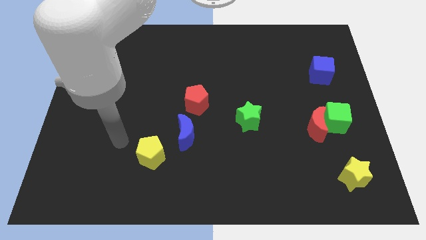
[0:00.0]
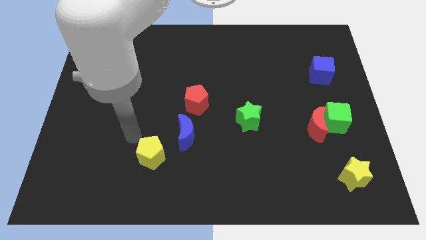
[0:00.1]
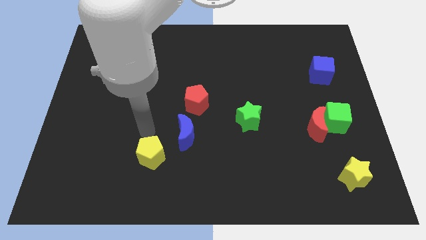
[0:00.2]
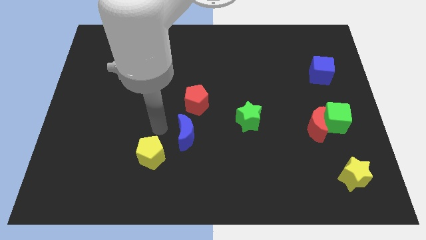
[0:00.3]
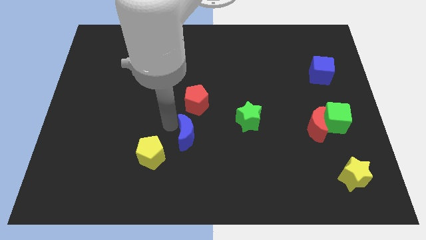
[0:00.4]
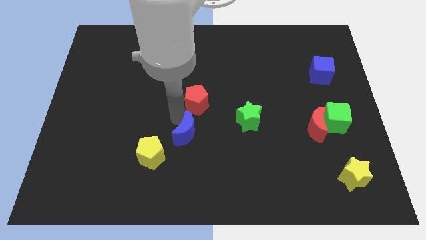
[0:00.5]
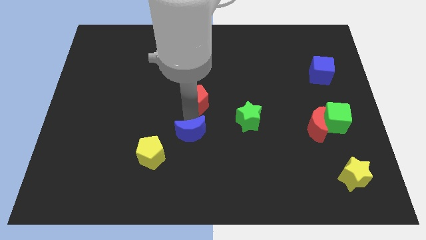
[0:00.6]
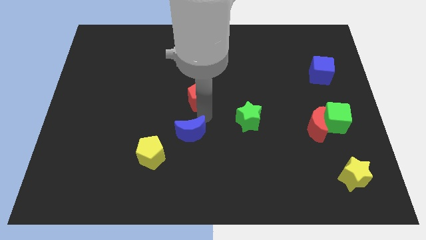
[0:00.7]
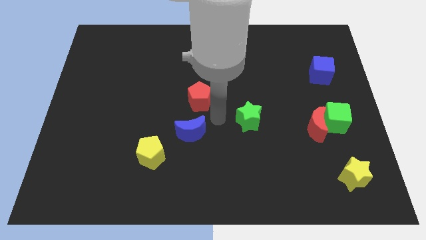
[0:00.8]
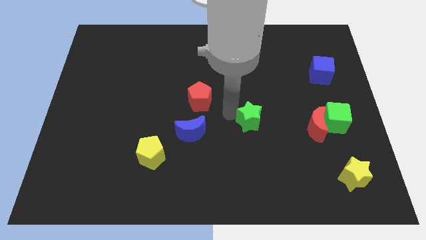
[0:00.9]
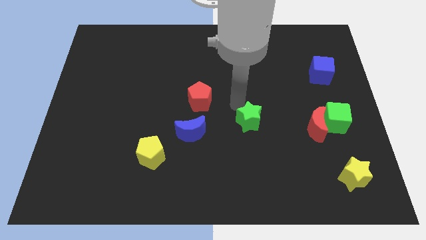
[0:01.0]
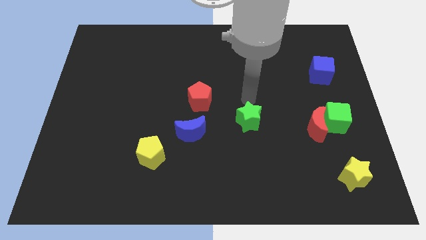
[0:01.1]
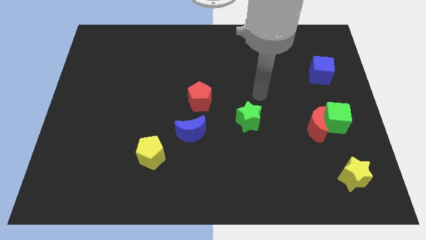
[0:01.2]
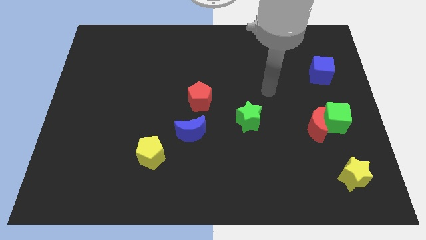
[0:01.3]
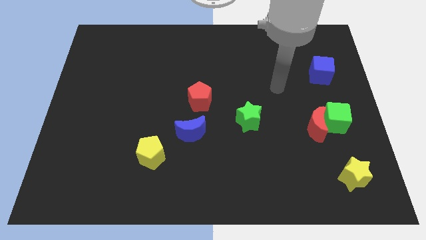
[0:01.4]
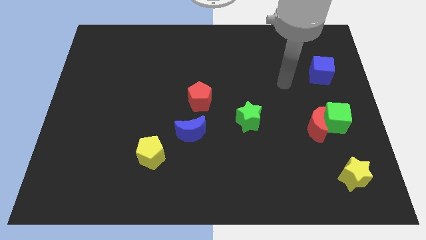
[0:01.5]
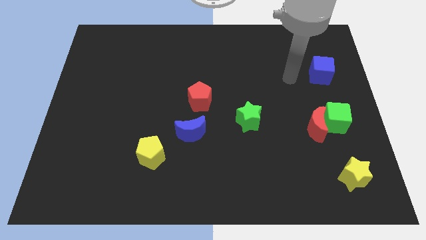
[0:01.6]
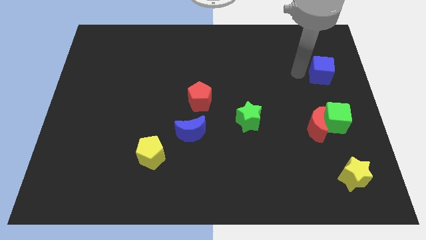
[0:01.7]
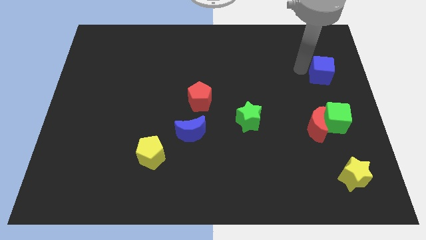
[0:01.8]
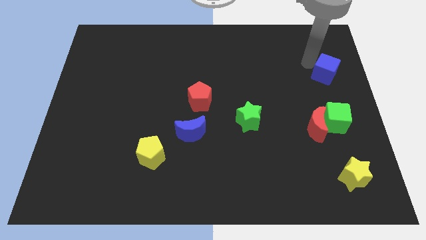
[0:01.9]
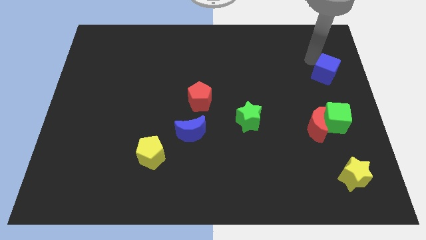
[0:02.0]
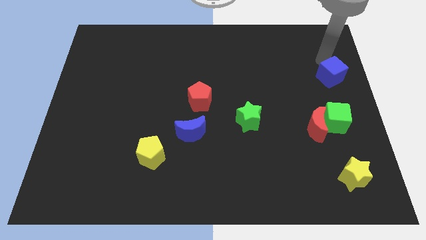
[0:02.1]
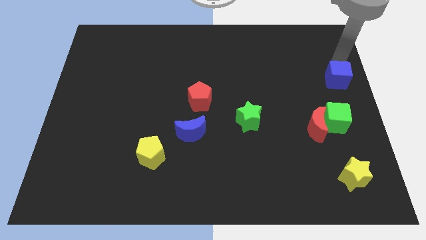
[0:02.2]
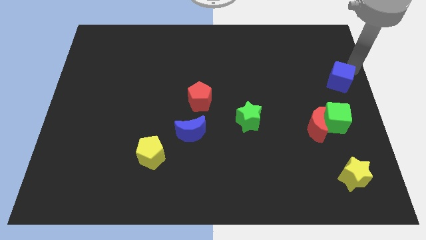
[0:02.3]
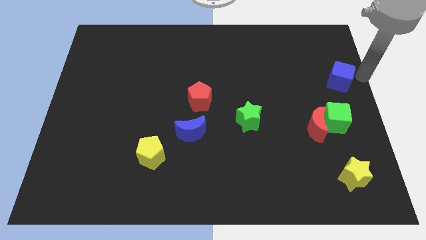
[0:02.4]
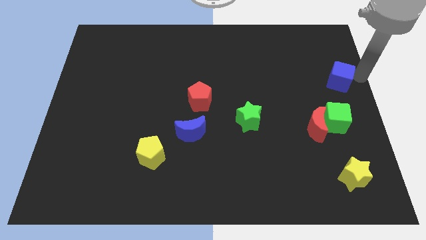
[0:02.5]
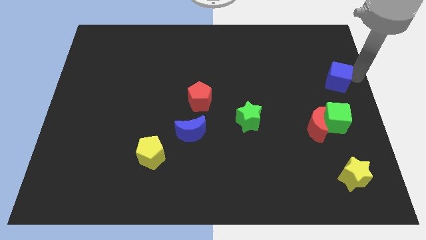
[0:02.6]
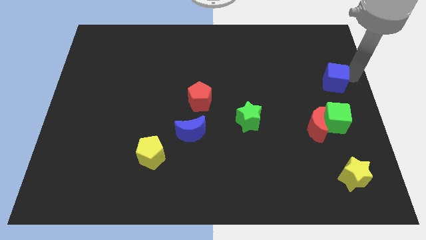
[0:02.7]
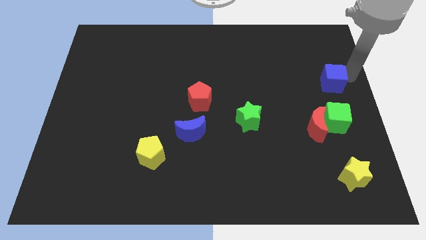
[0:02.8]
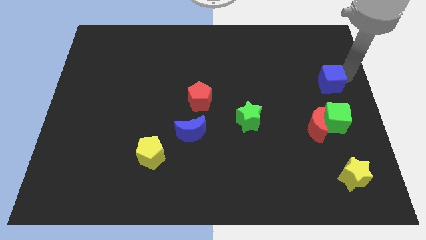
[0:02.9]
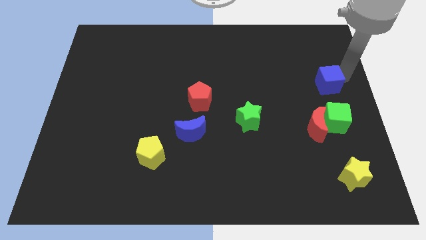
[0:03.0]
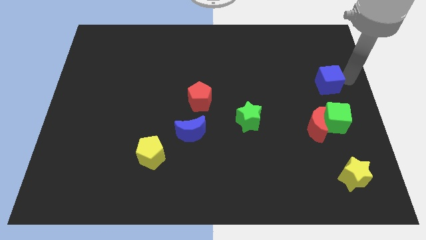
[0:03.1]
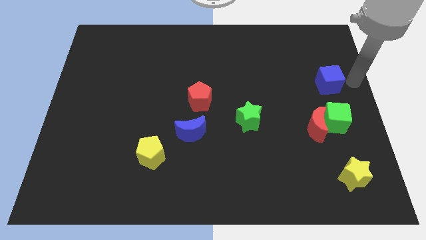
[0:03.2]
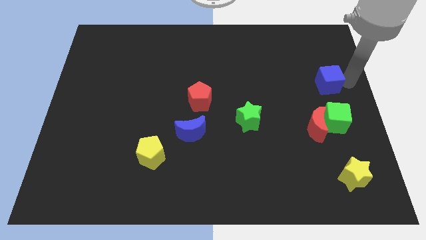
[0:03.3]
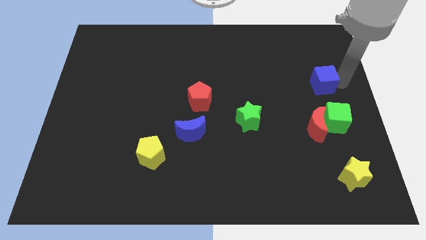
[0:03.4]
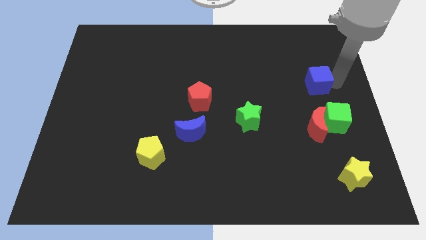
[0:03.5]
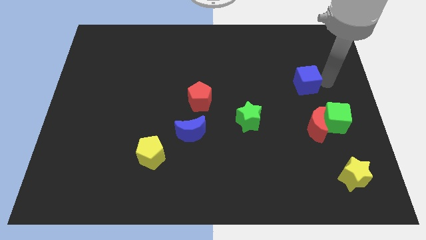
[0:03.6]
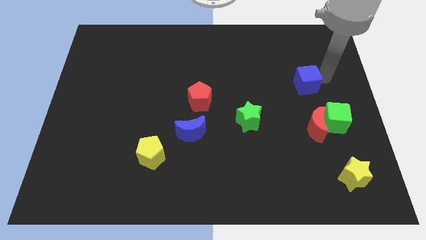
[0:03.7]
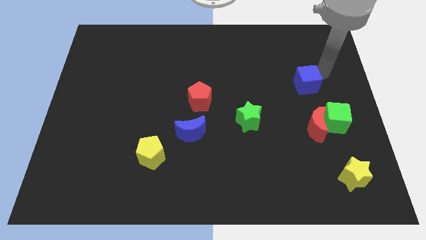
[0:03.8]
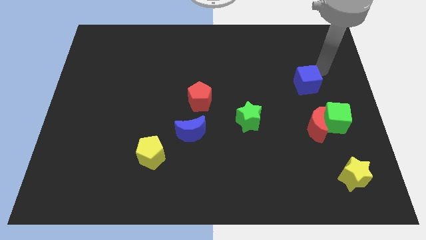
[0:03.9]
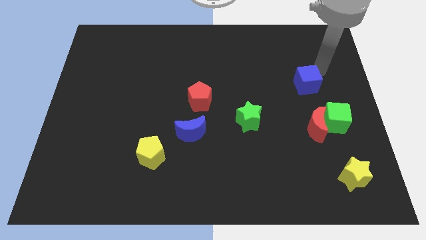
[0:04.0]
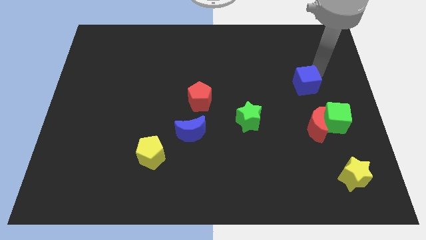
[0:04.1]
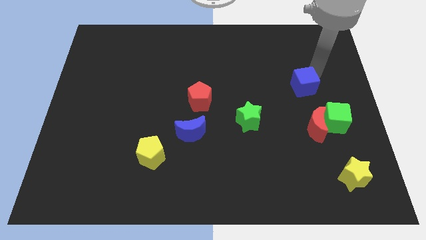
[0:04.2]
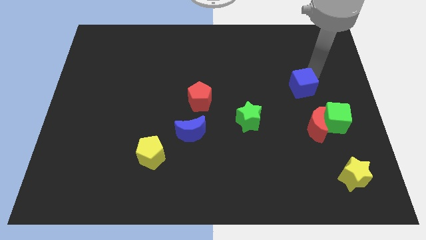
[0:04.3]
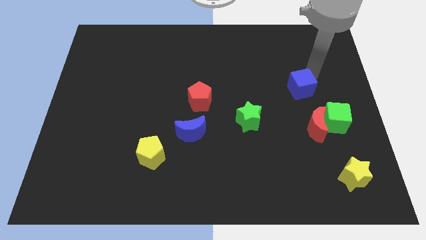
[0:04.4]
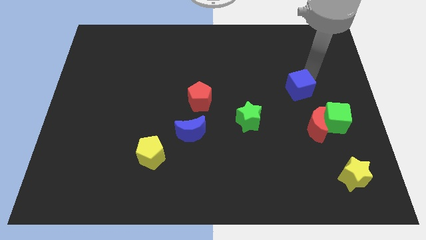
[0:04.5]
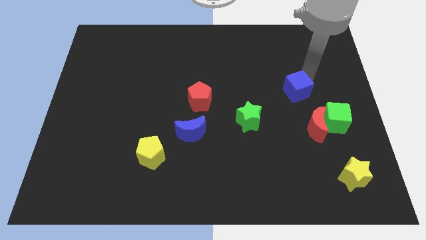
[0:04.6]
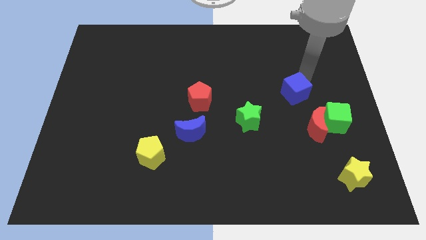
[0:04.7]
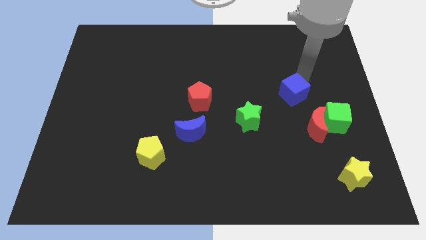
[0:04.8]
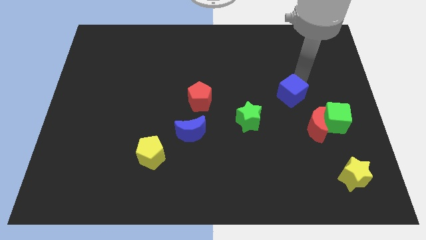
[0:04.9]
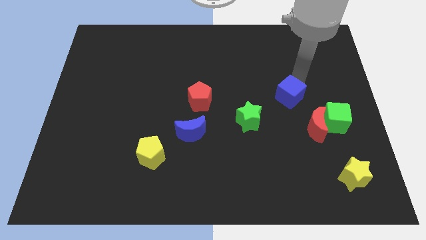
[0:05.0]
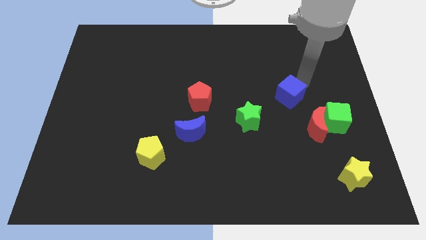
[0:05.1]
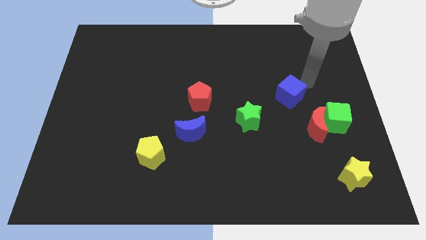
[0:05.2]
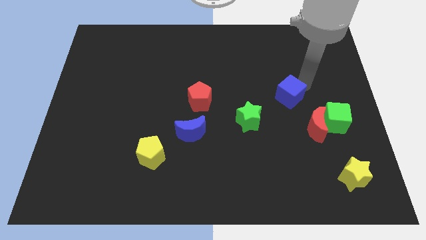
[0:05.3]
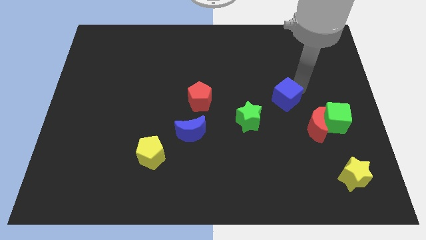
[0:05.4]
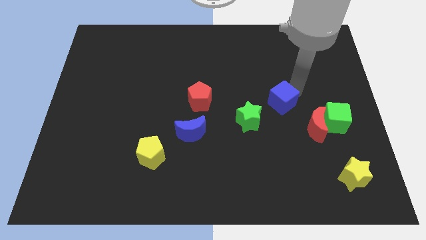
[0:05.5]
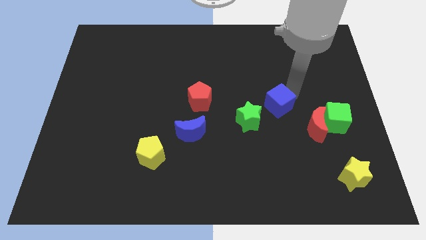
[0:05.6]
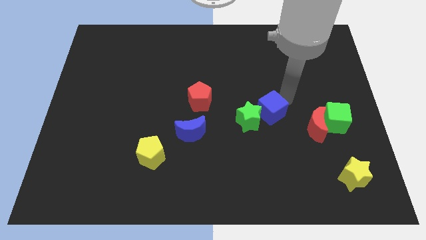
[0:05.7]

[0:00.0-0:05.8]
push the blue cube close to the green star

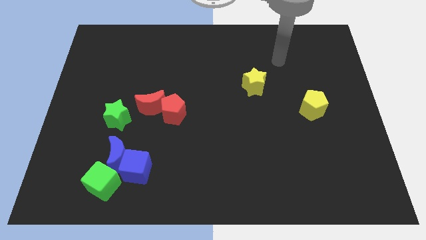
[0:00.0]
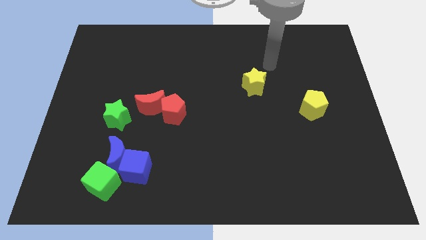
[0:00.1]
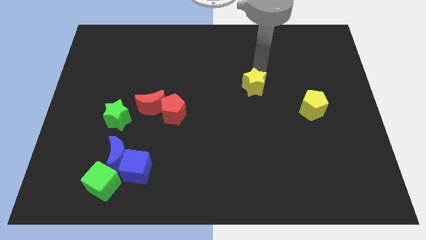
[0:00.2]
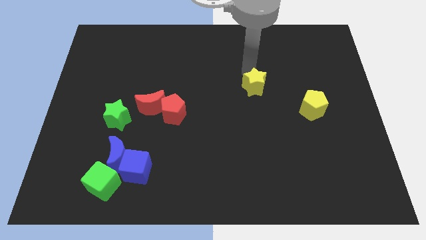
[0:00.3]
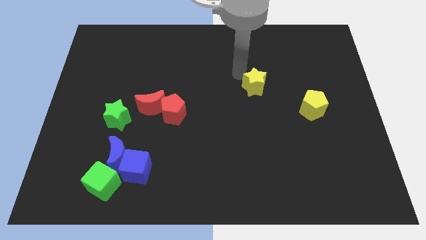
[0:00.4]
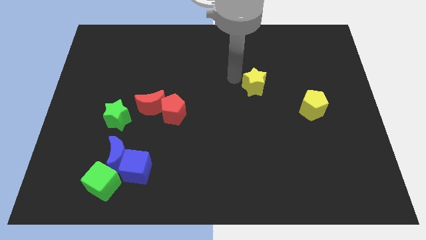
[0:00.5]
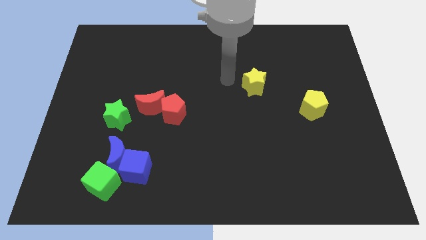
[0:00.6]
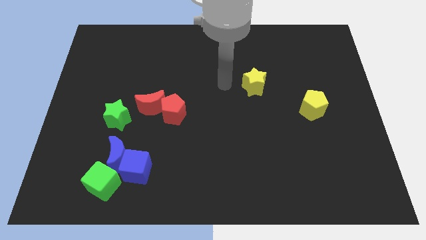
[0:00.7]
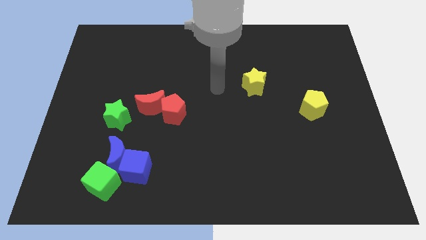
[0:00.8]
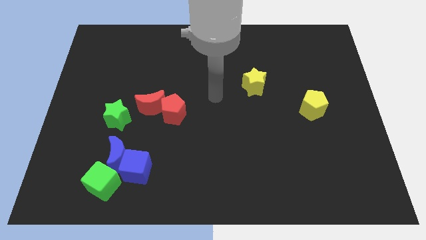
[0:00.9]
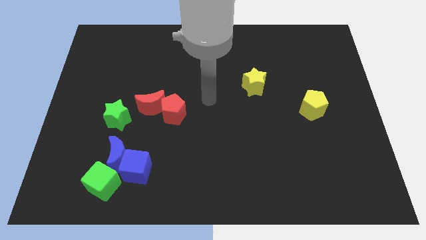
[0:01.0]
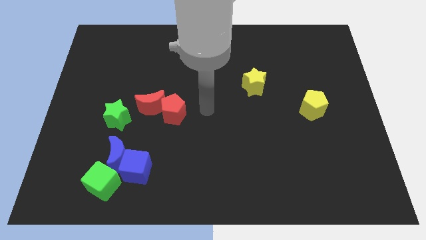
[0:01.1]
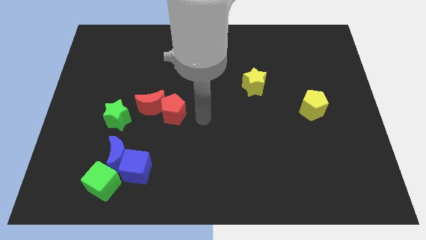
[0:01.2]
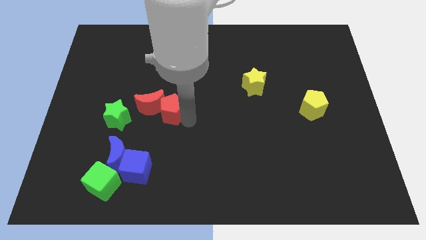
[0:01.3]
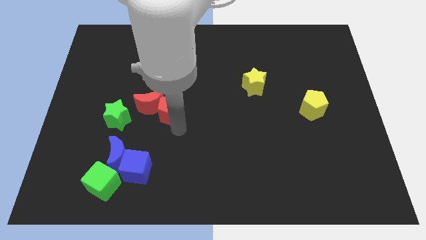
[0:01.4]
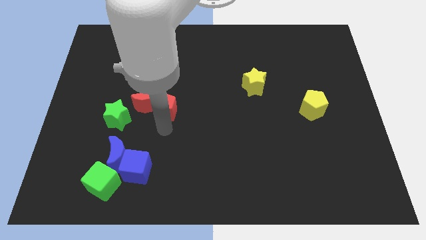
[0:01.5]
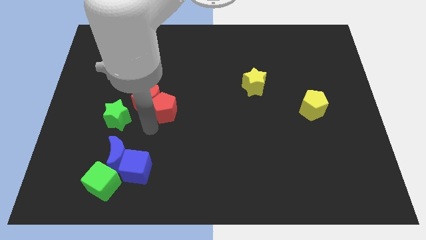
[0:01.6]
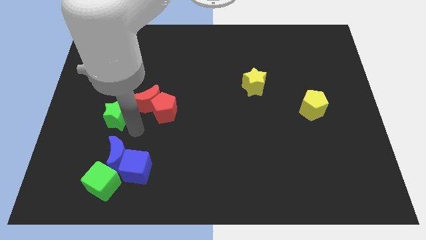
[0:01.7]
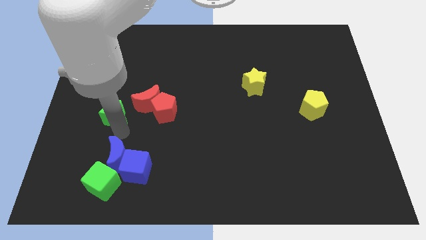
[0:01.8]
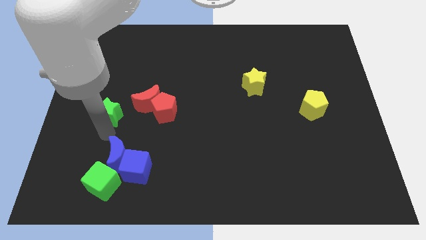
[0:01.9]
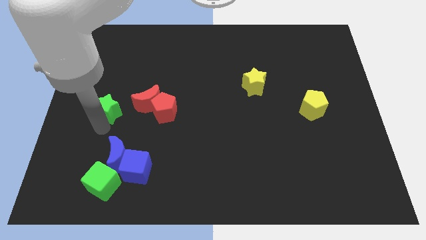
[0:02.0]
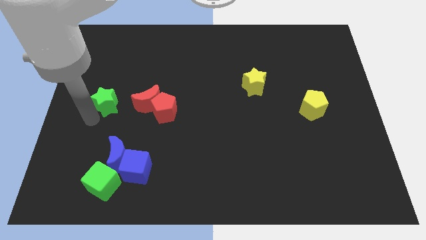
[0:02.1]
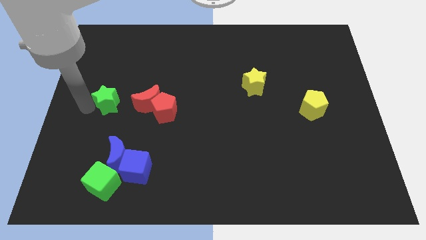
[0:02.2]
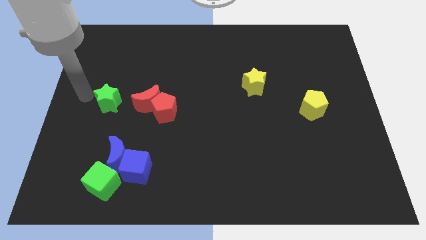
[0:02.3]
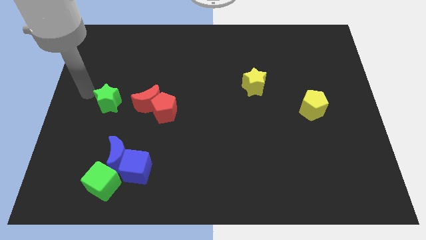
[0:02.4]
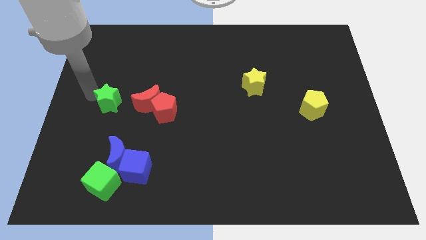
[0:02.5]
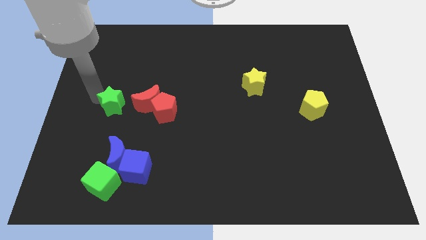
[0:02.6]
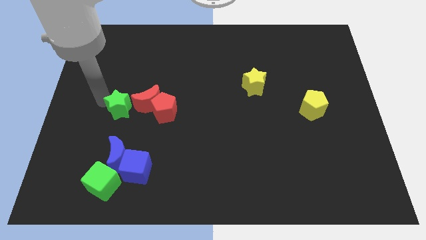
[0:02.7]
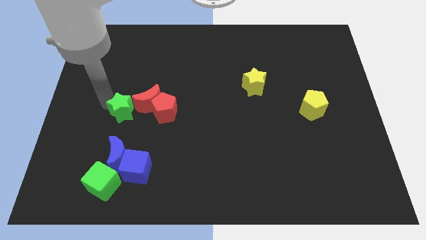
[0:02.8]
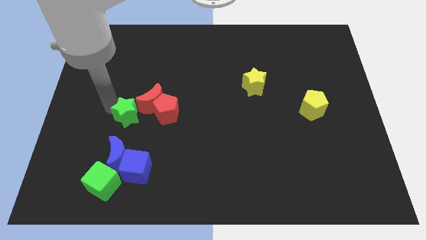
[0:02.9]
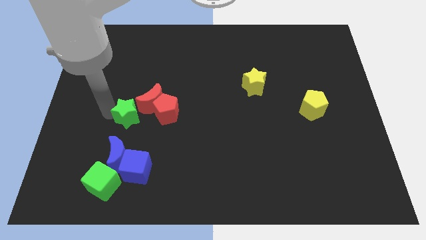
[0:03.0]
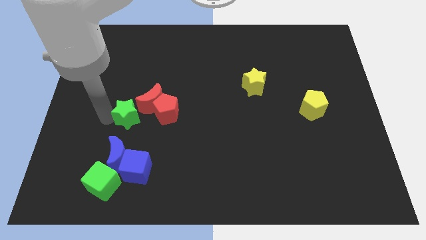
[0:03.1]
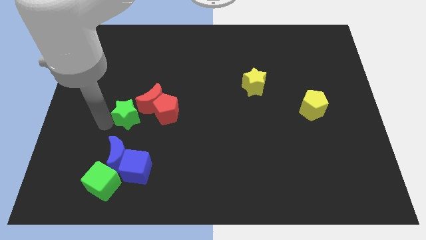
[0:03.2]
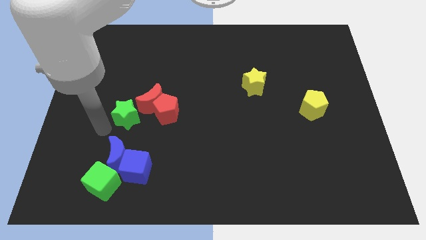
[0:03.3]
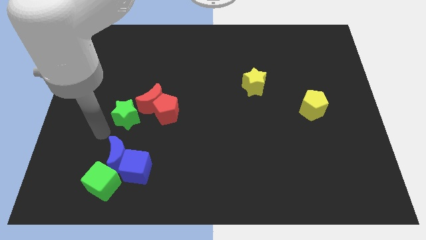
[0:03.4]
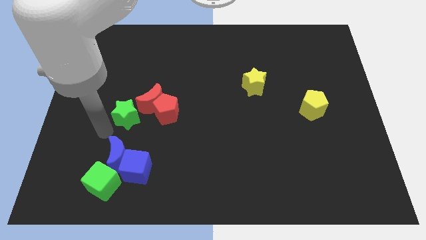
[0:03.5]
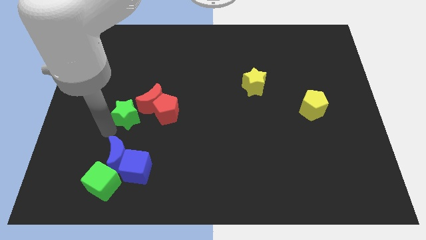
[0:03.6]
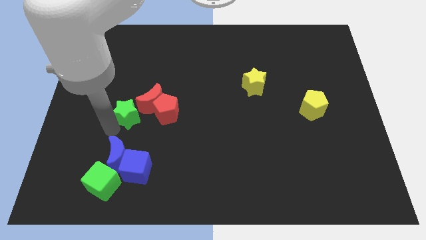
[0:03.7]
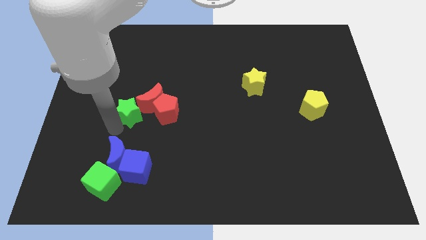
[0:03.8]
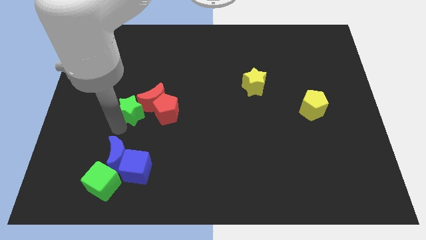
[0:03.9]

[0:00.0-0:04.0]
slide the green star close to the red moon
